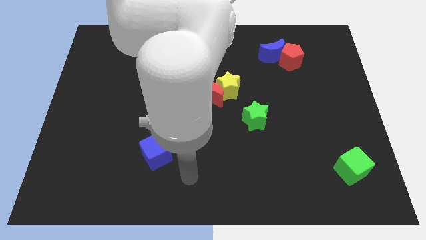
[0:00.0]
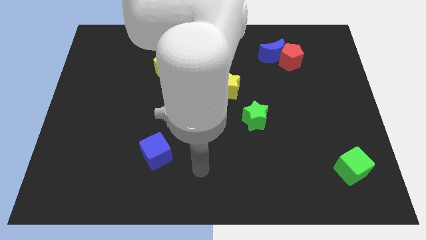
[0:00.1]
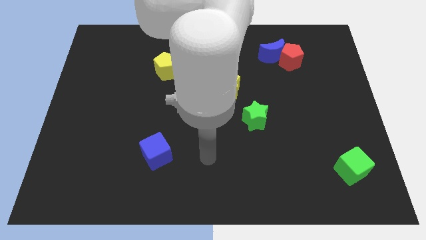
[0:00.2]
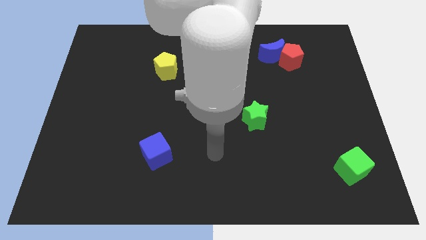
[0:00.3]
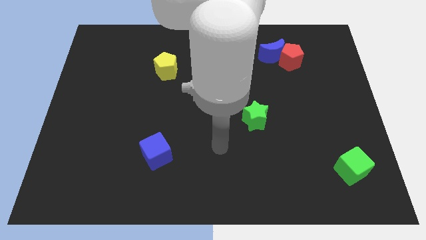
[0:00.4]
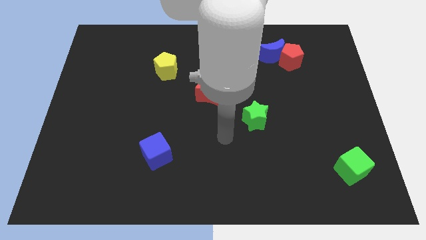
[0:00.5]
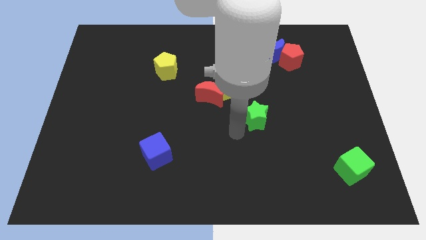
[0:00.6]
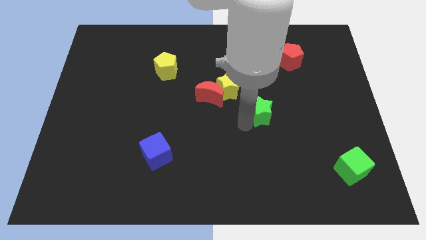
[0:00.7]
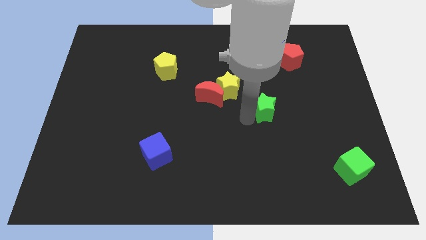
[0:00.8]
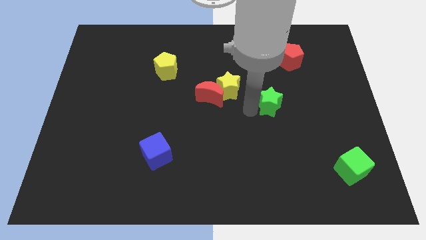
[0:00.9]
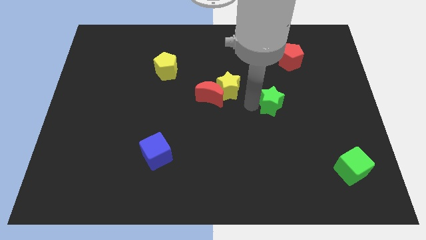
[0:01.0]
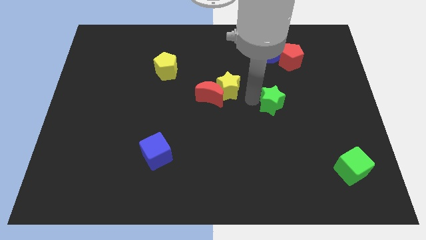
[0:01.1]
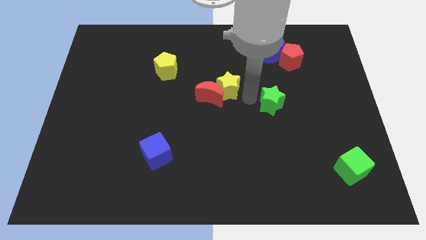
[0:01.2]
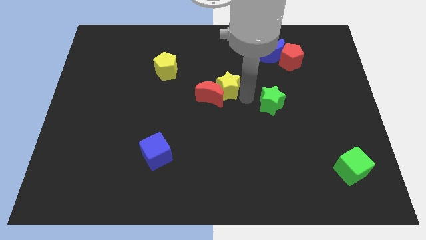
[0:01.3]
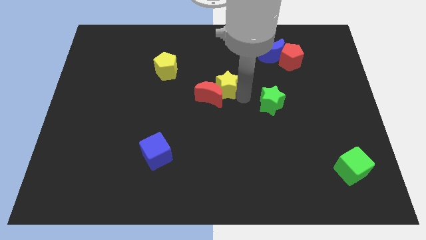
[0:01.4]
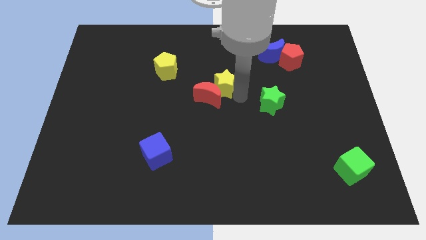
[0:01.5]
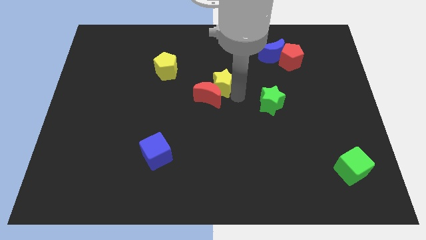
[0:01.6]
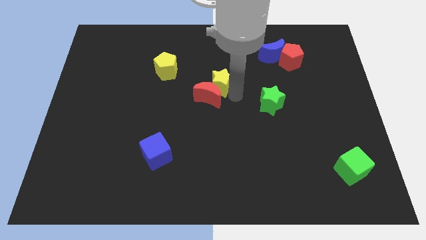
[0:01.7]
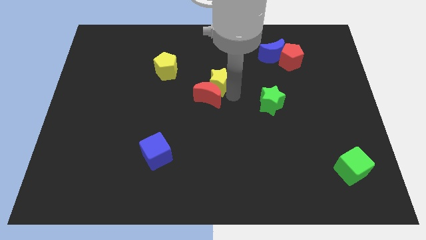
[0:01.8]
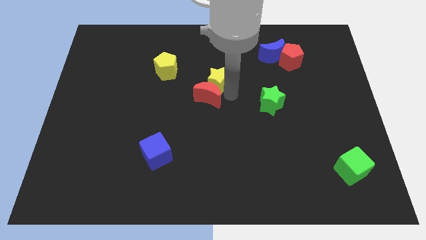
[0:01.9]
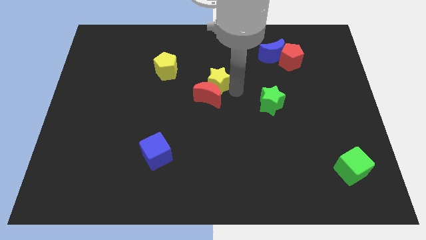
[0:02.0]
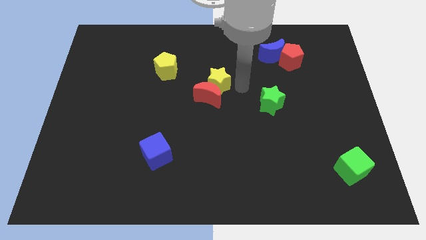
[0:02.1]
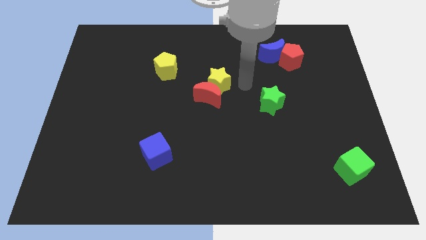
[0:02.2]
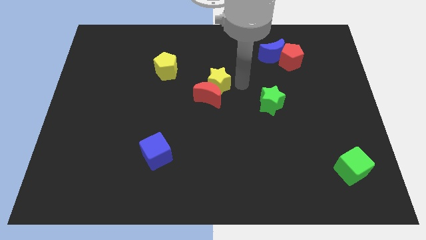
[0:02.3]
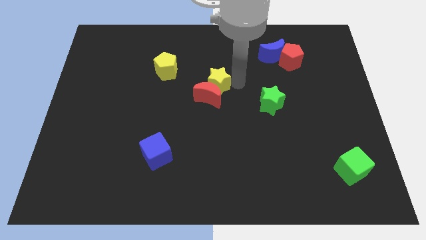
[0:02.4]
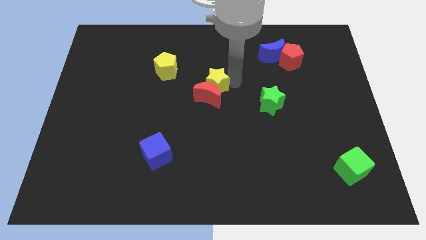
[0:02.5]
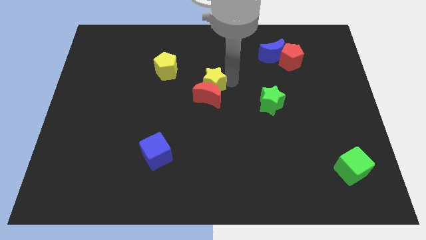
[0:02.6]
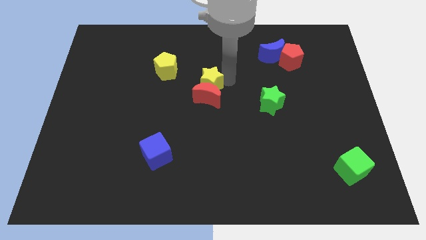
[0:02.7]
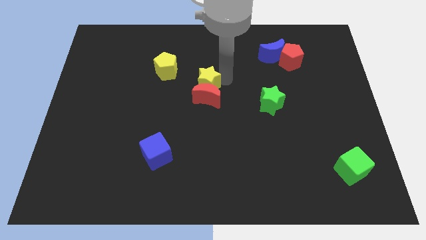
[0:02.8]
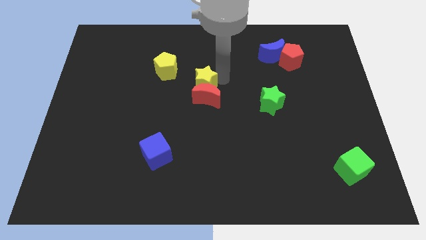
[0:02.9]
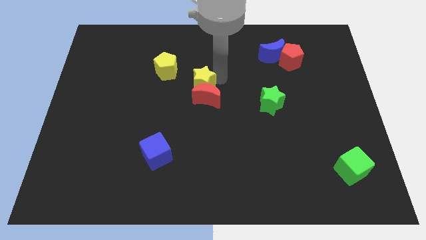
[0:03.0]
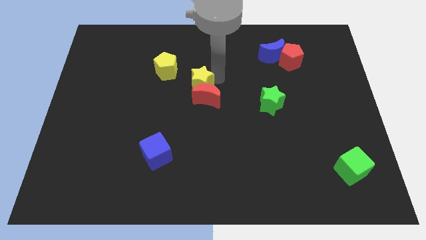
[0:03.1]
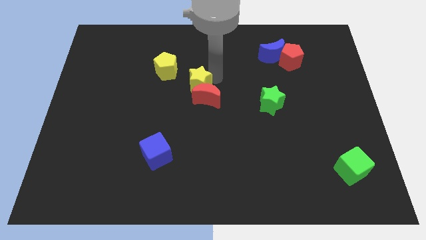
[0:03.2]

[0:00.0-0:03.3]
slide the yellow star left slightly

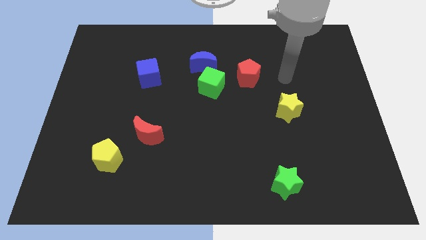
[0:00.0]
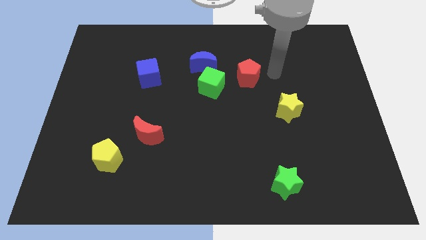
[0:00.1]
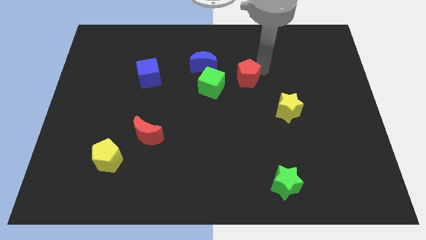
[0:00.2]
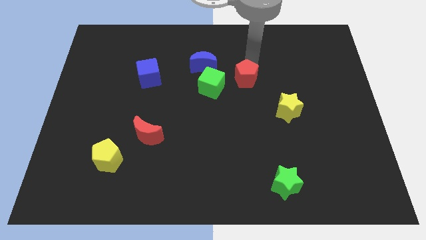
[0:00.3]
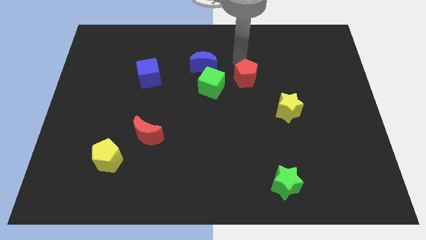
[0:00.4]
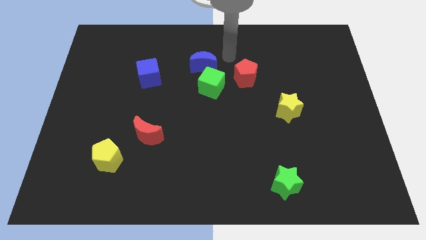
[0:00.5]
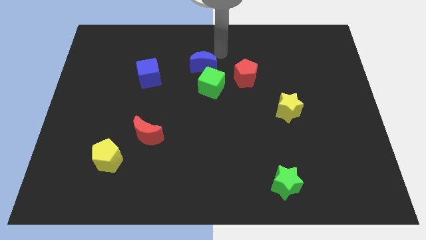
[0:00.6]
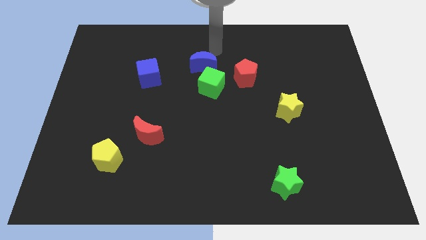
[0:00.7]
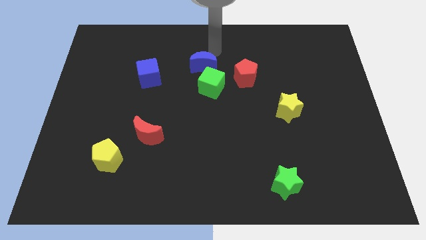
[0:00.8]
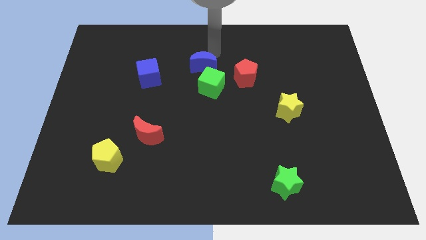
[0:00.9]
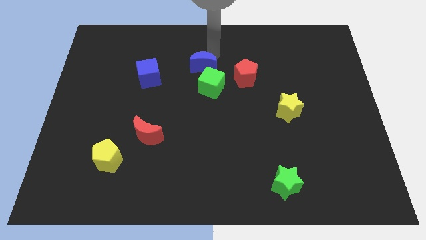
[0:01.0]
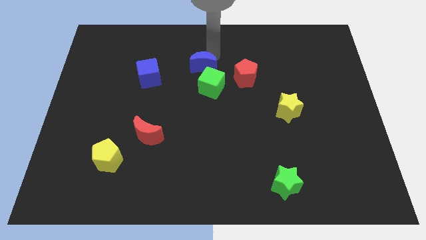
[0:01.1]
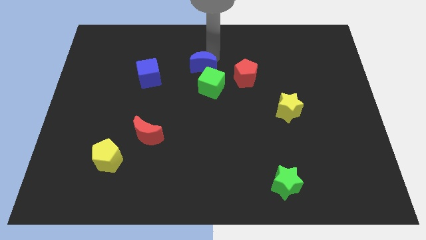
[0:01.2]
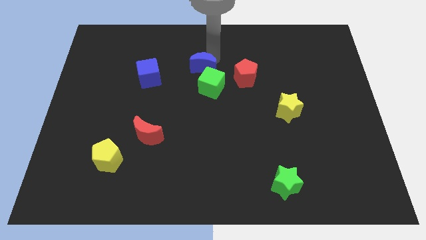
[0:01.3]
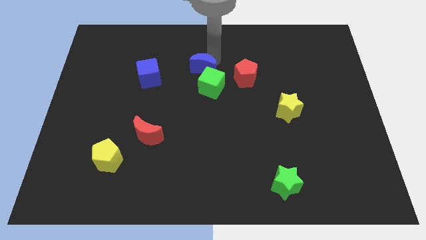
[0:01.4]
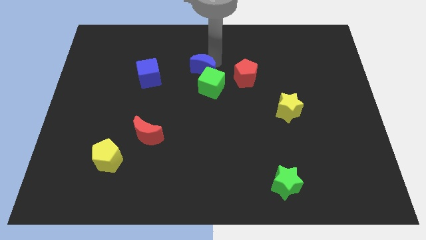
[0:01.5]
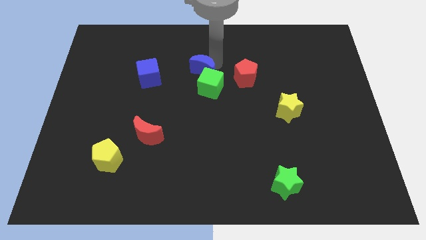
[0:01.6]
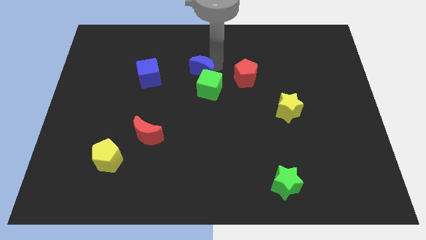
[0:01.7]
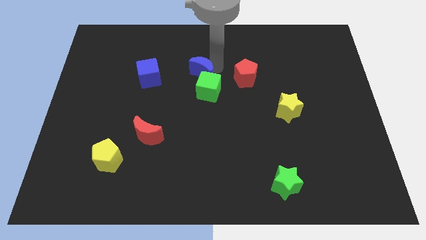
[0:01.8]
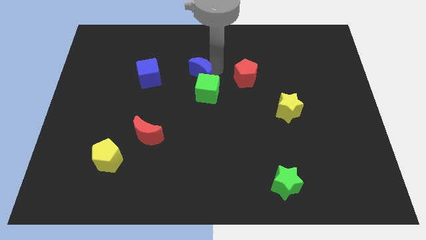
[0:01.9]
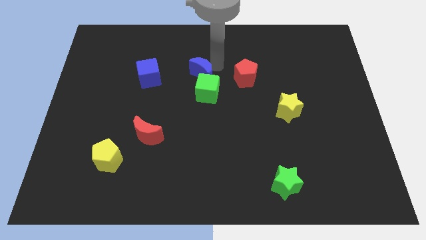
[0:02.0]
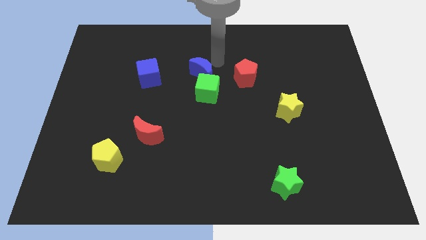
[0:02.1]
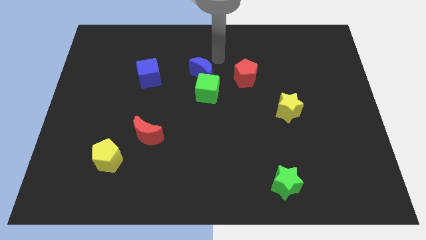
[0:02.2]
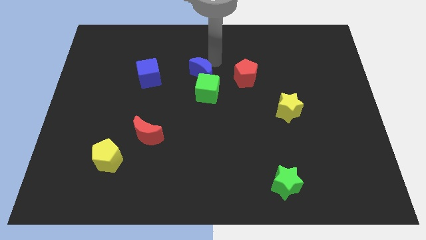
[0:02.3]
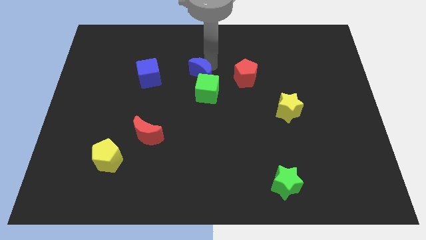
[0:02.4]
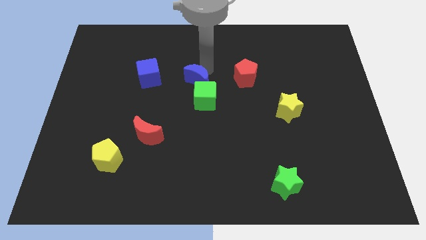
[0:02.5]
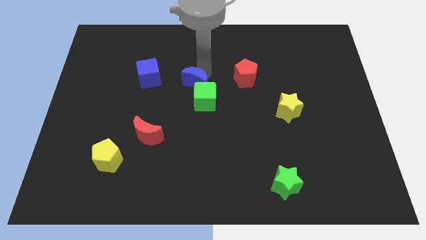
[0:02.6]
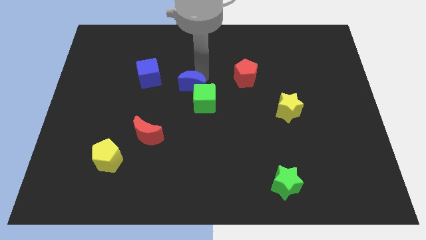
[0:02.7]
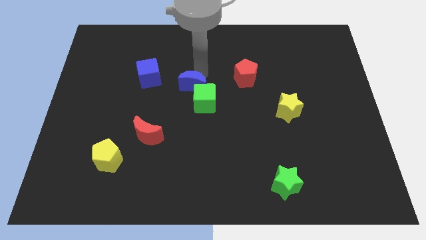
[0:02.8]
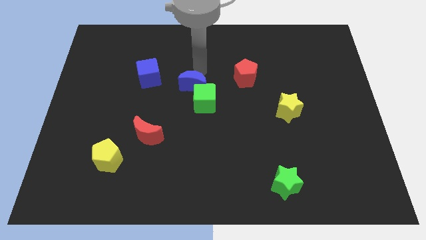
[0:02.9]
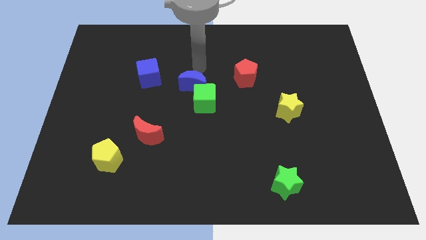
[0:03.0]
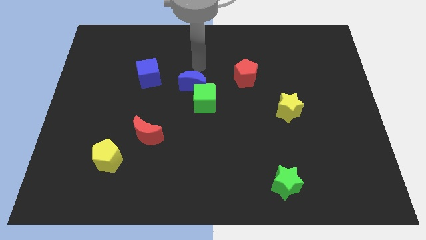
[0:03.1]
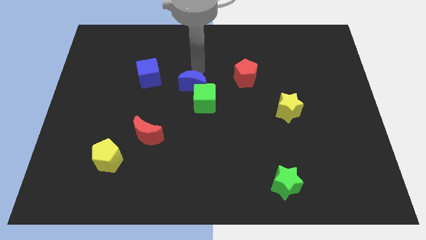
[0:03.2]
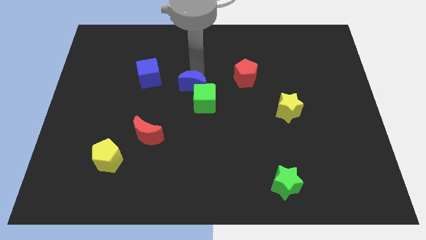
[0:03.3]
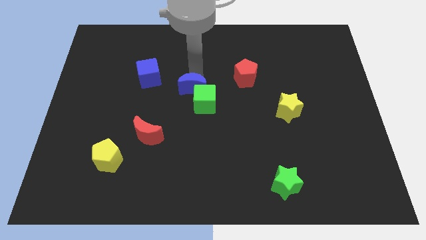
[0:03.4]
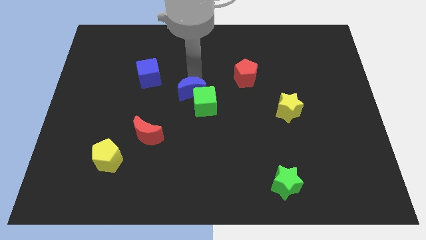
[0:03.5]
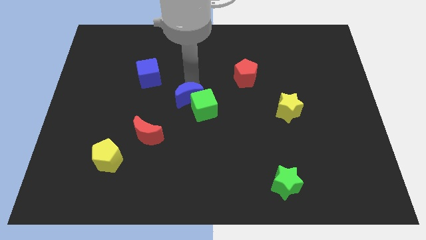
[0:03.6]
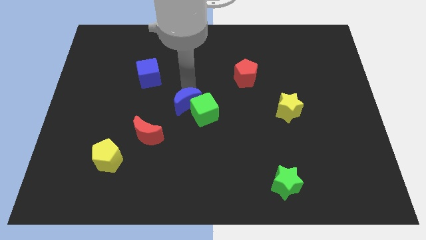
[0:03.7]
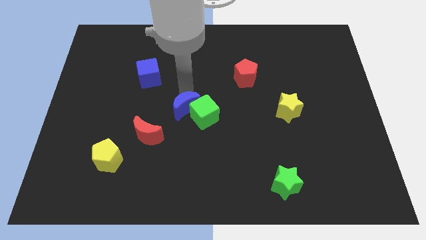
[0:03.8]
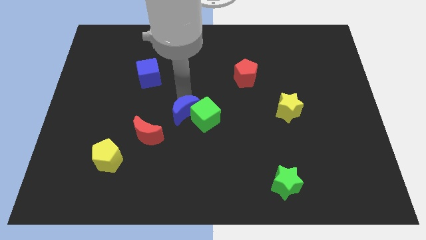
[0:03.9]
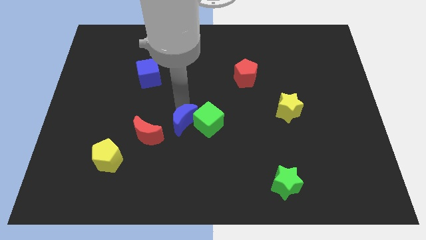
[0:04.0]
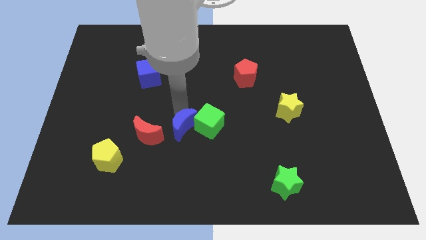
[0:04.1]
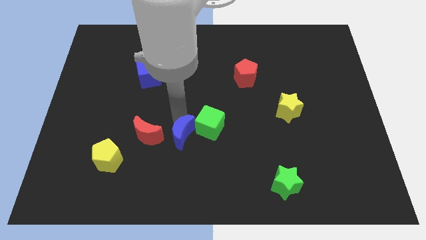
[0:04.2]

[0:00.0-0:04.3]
move the blue moon down

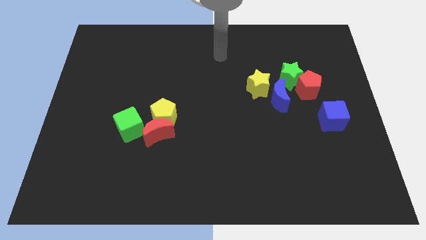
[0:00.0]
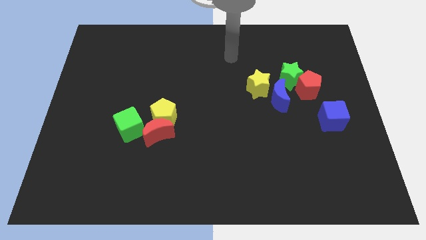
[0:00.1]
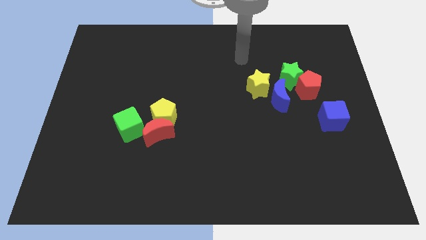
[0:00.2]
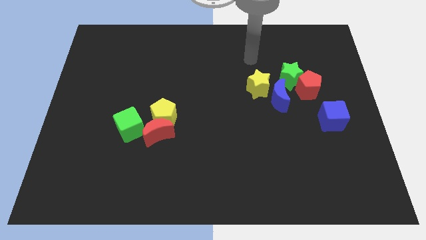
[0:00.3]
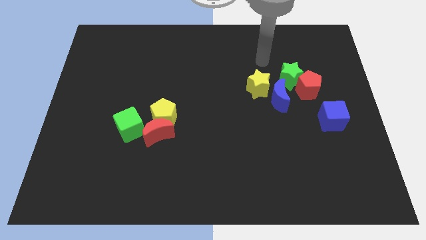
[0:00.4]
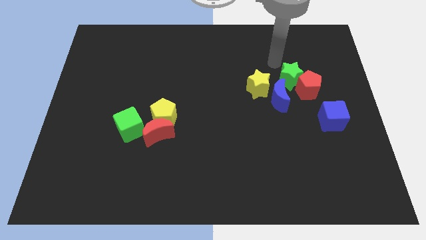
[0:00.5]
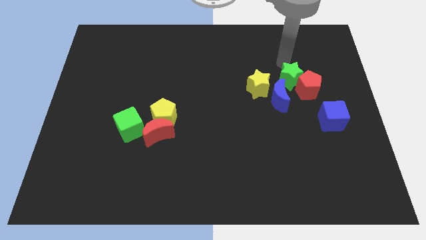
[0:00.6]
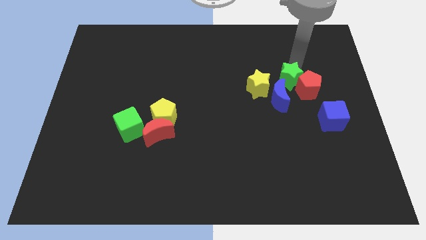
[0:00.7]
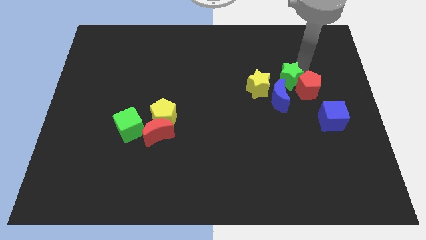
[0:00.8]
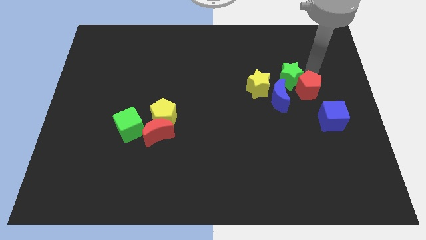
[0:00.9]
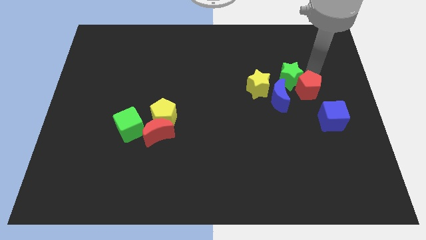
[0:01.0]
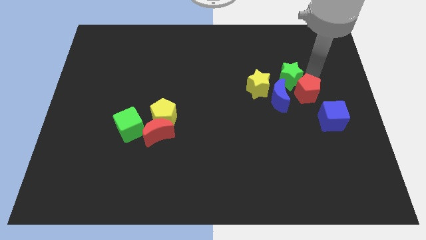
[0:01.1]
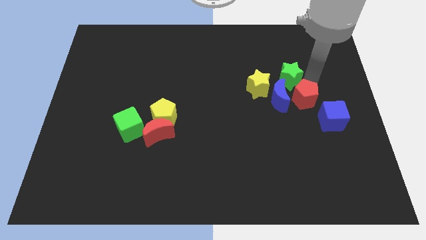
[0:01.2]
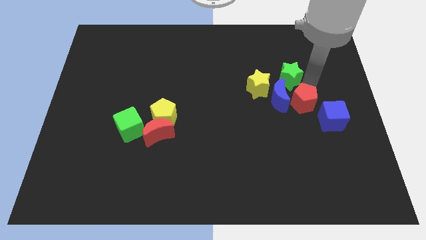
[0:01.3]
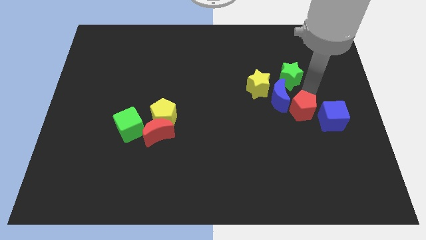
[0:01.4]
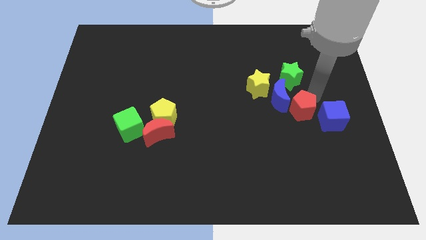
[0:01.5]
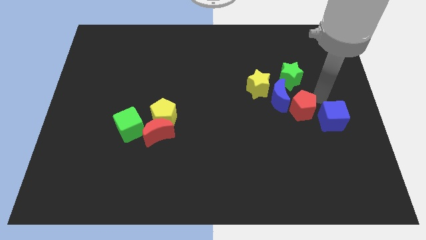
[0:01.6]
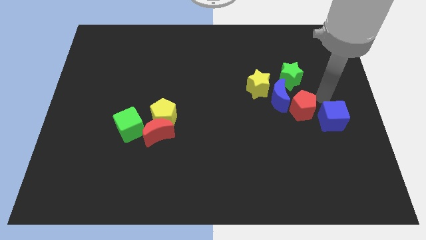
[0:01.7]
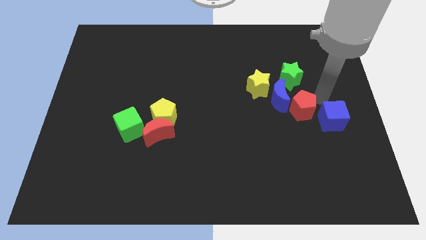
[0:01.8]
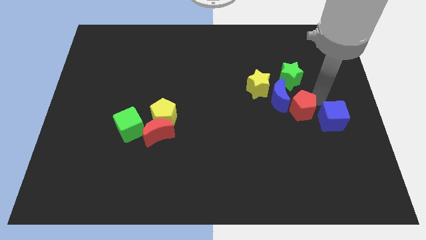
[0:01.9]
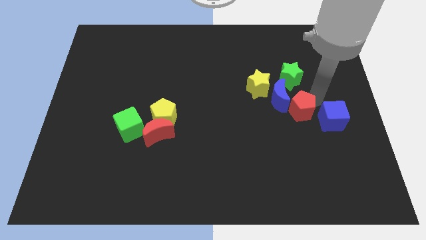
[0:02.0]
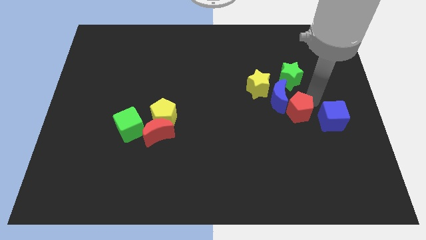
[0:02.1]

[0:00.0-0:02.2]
slide the red pentagon a bit diagonally down and left
